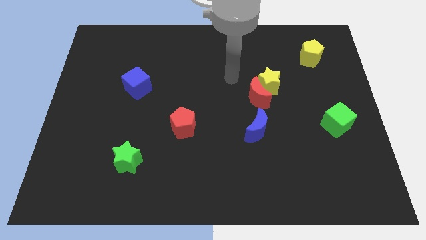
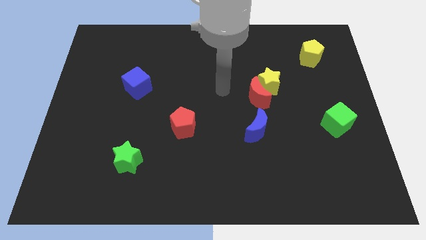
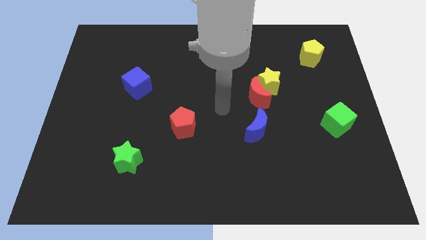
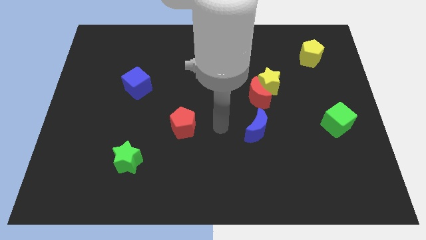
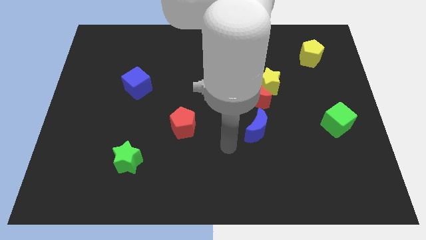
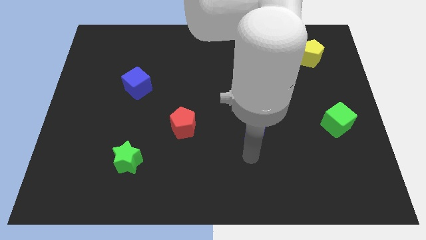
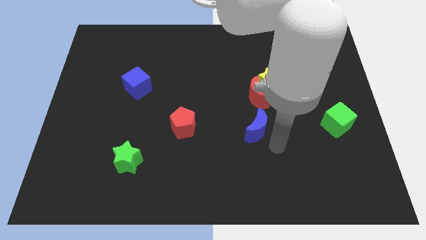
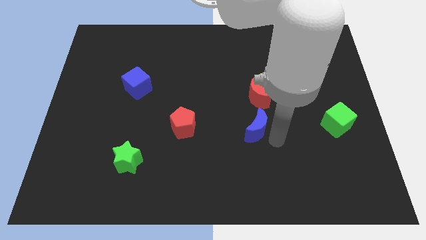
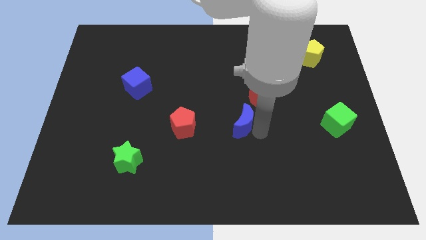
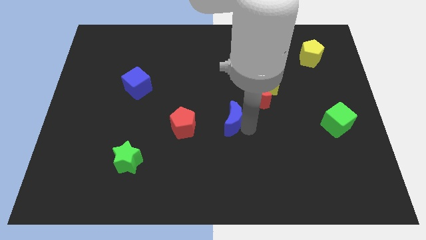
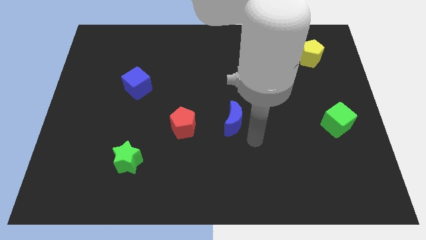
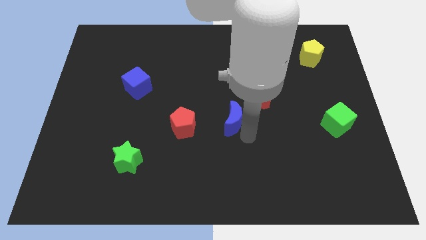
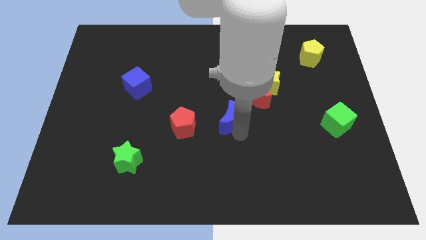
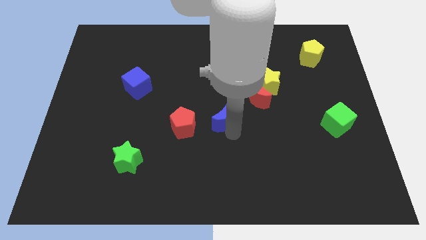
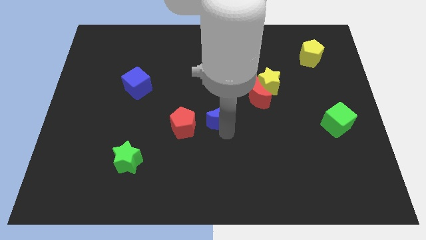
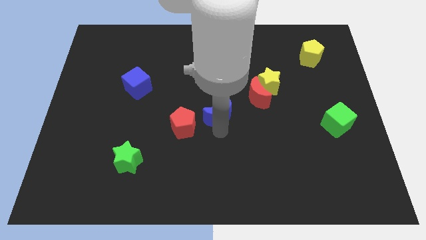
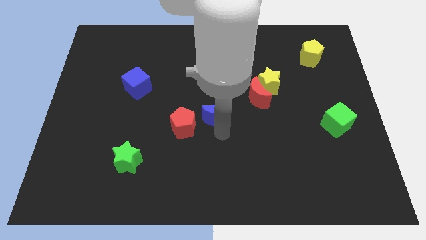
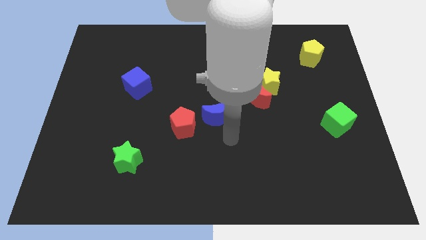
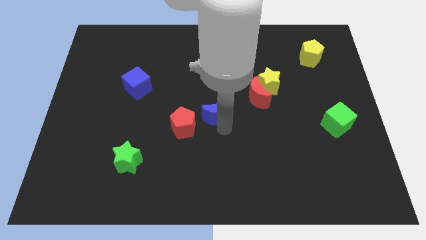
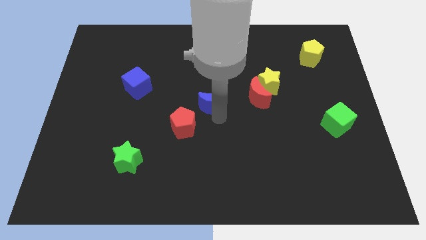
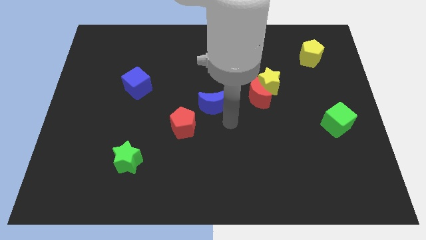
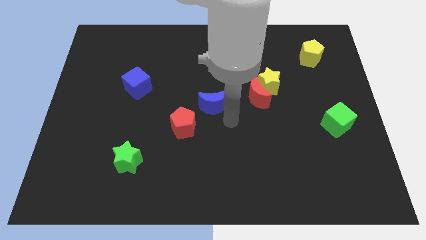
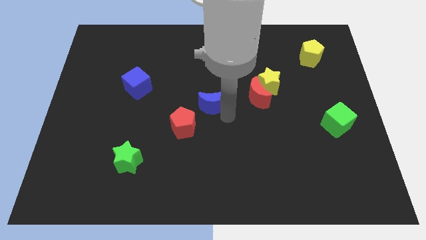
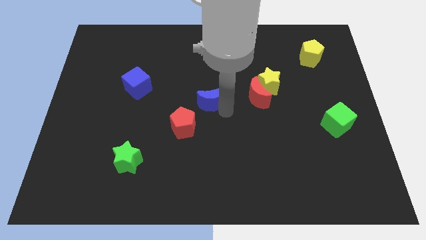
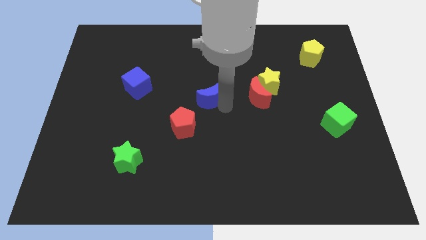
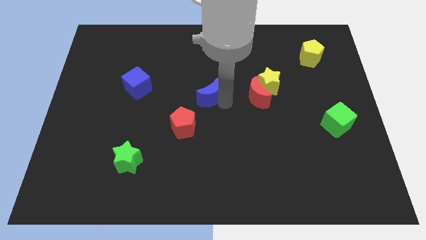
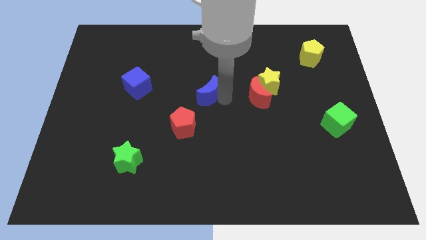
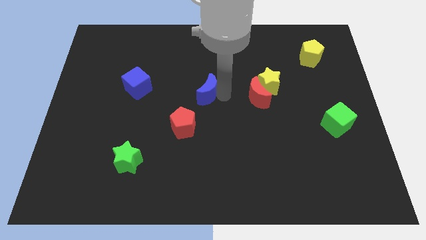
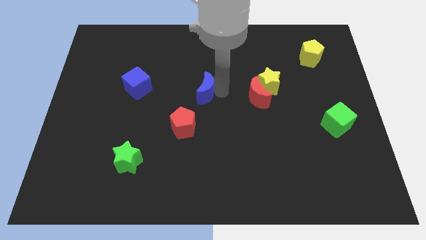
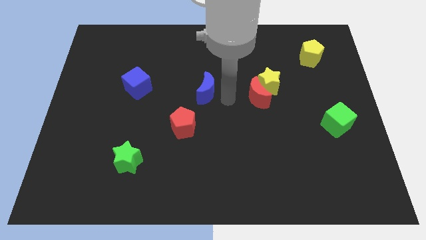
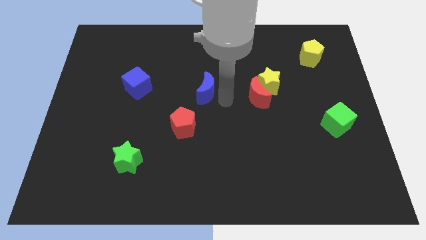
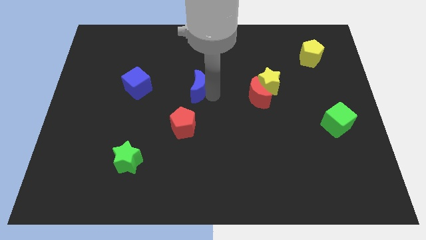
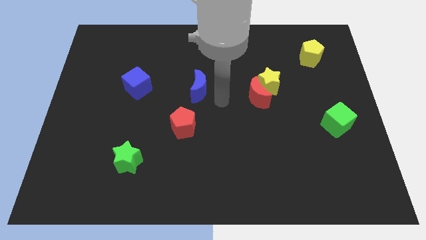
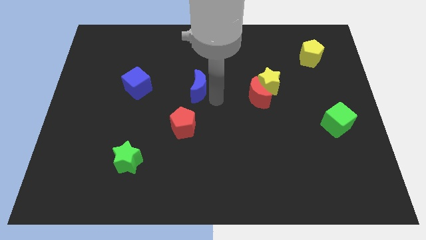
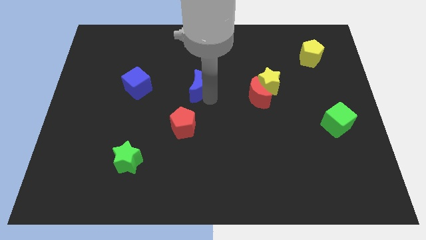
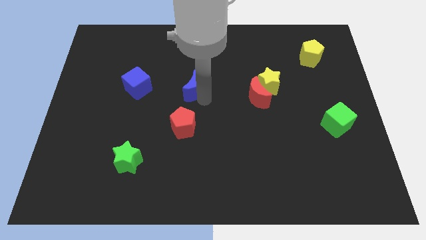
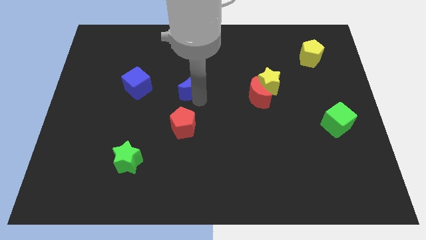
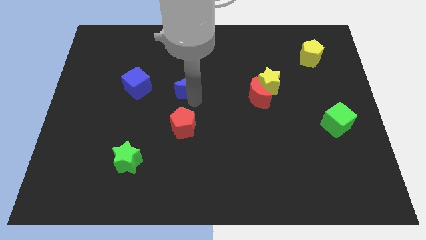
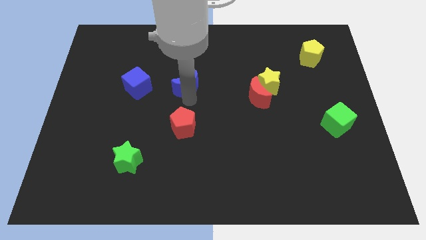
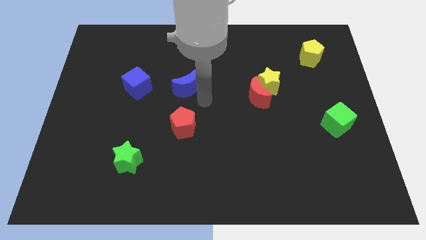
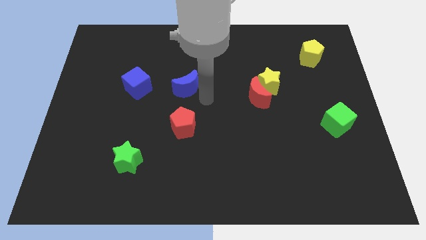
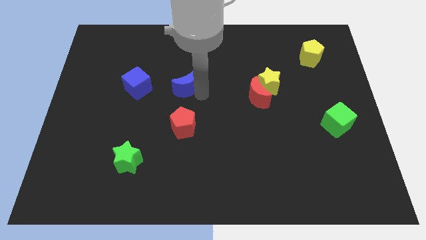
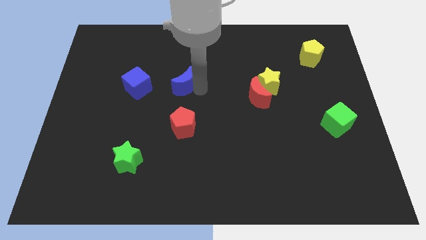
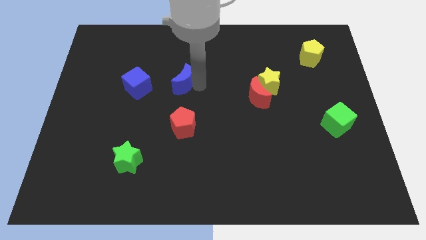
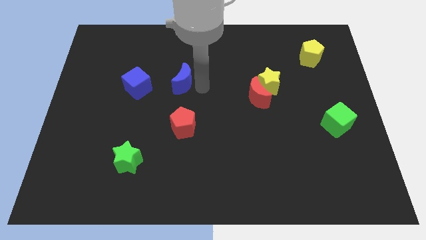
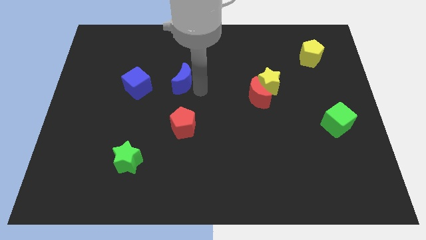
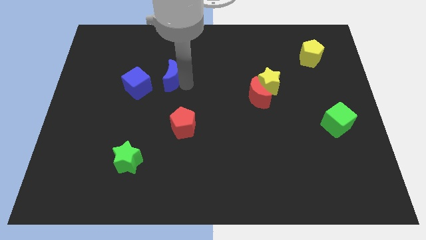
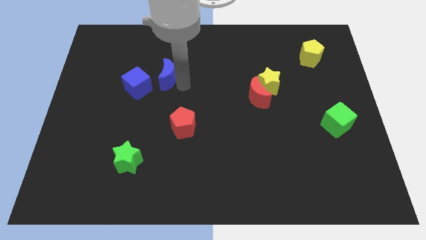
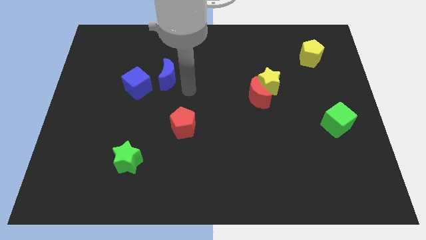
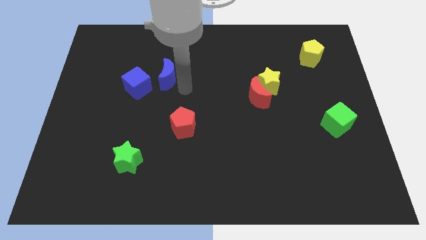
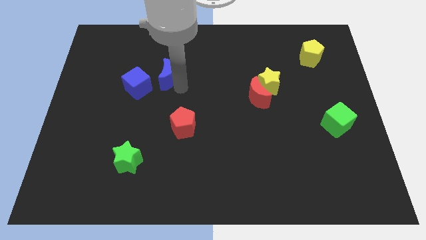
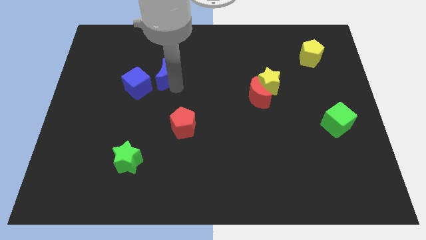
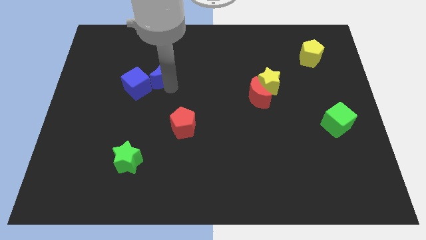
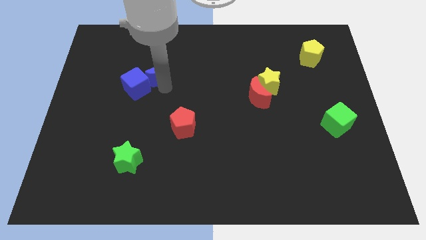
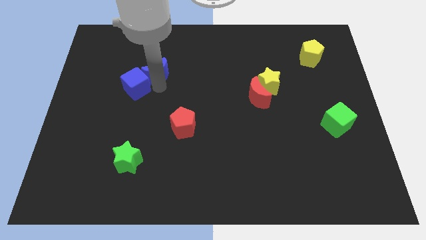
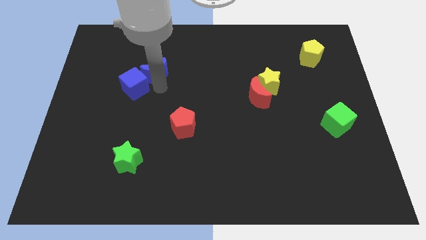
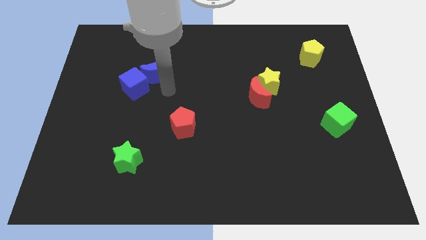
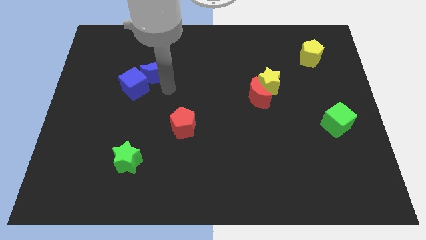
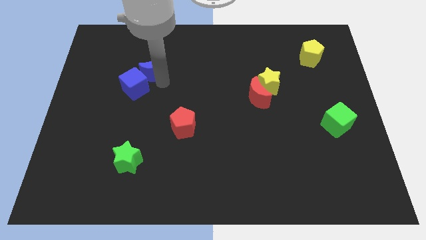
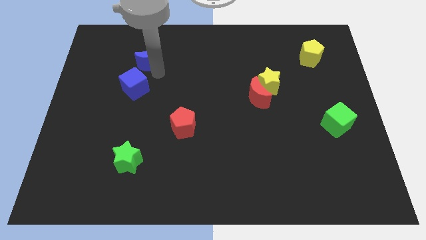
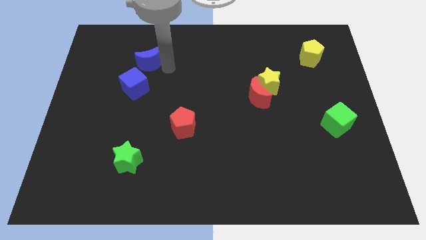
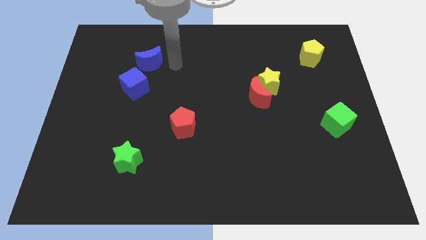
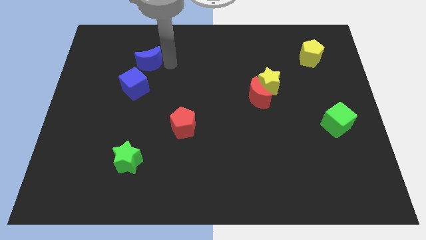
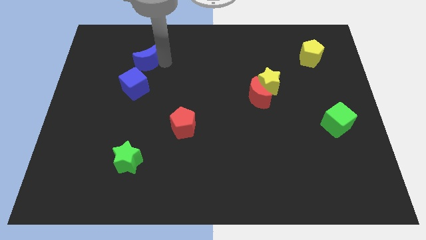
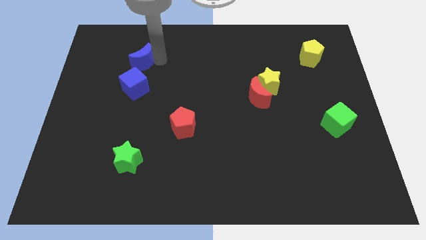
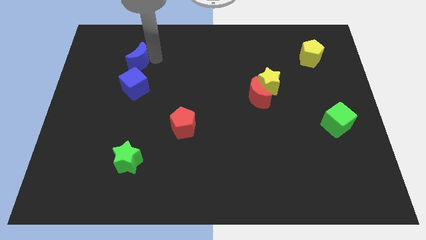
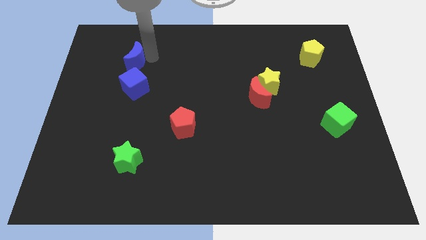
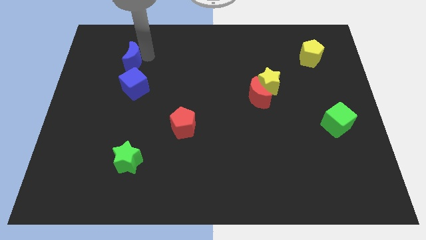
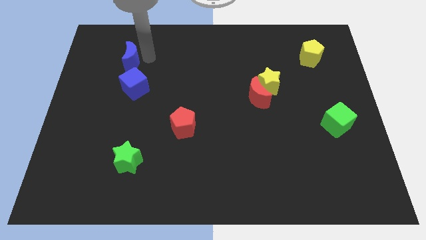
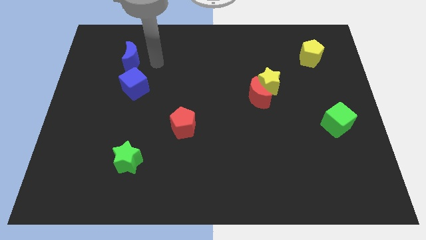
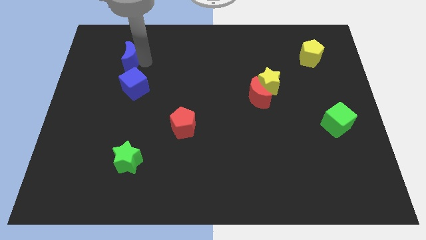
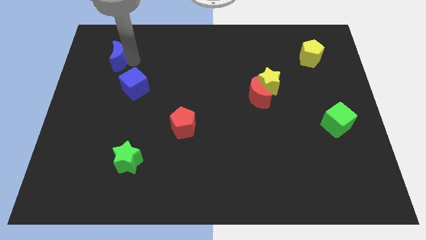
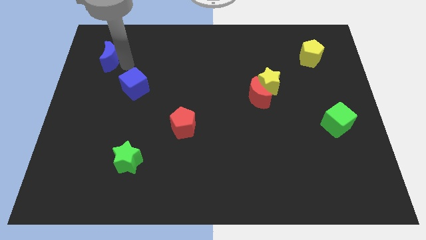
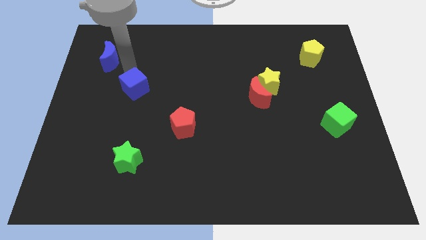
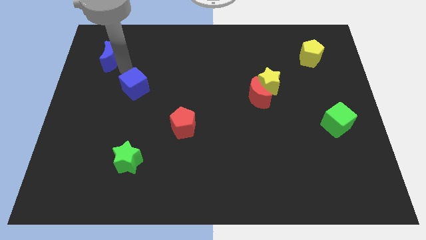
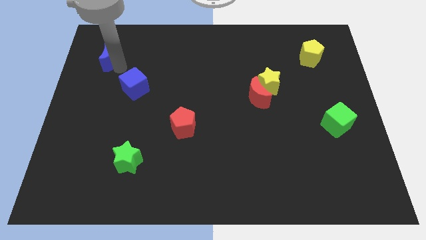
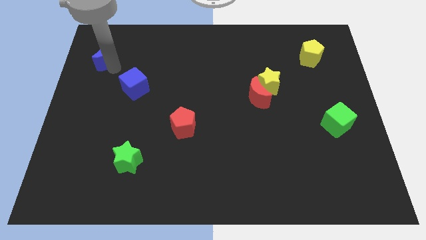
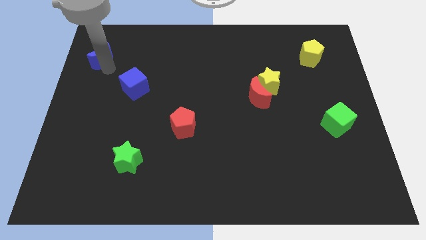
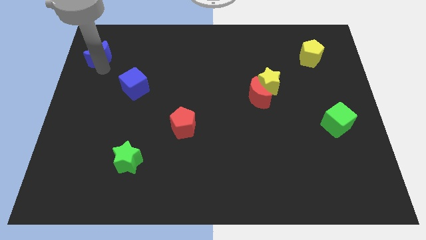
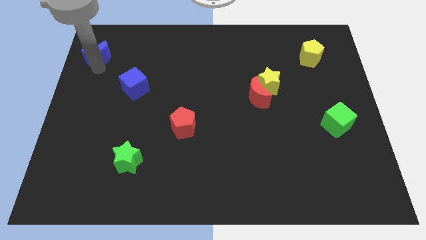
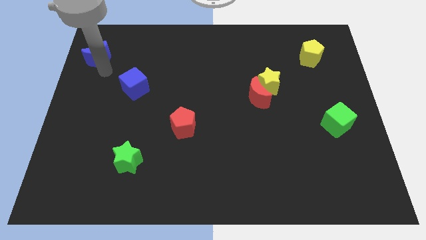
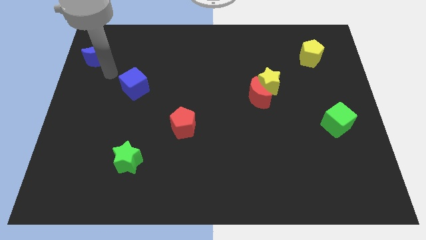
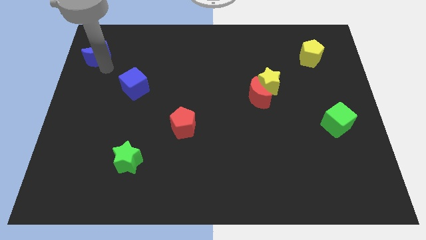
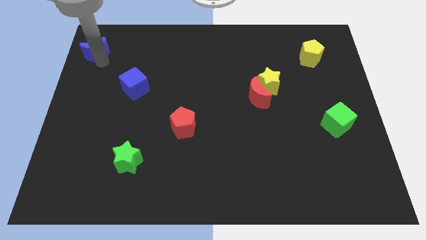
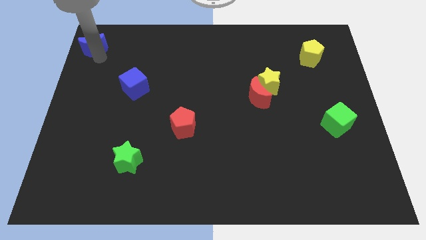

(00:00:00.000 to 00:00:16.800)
move the blue moon to the top left
